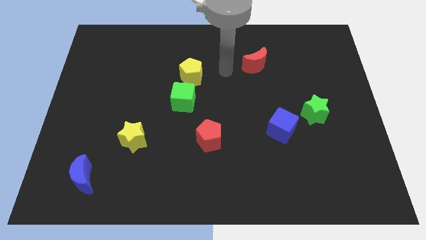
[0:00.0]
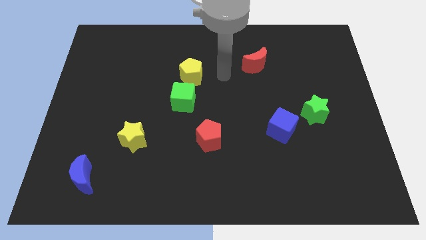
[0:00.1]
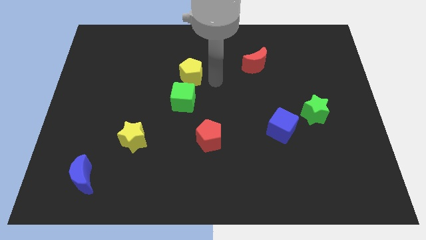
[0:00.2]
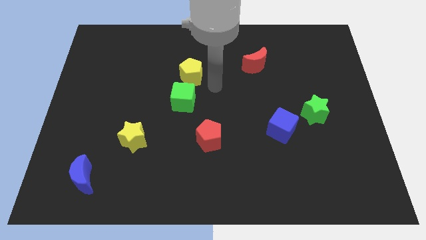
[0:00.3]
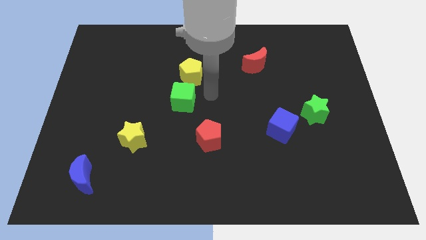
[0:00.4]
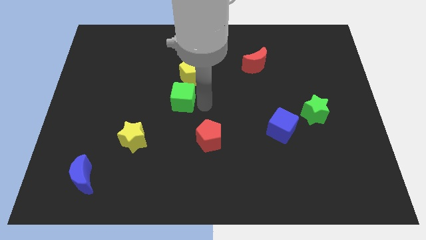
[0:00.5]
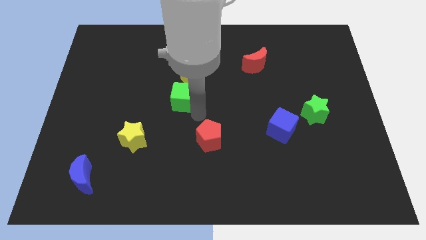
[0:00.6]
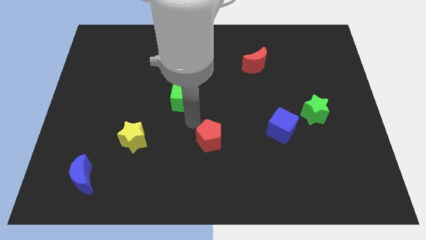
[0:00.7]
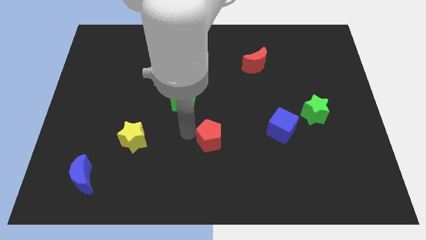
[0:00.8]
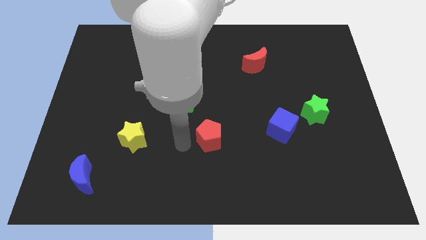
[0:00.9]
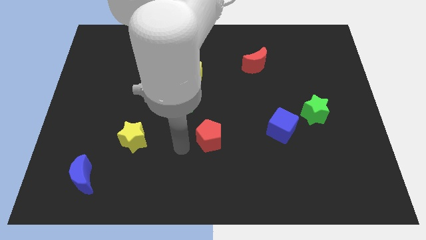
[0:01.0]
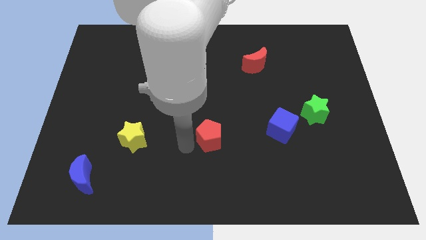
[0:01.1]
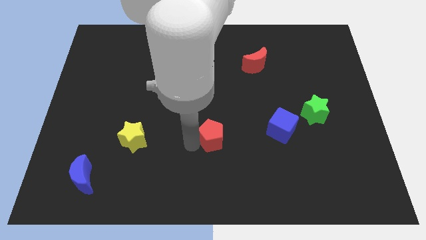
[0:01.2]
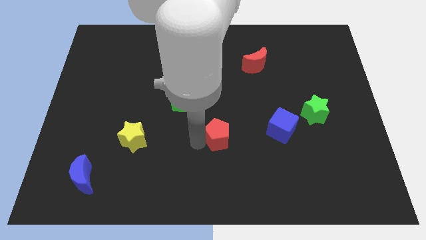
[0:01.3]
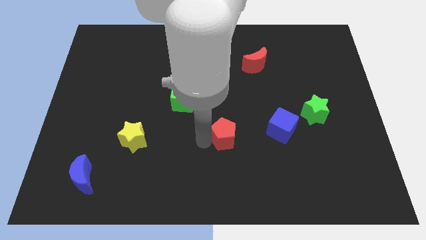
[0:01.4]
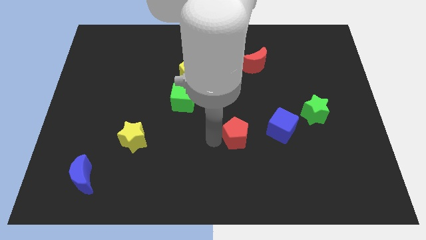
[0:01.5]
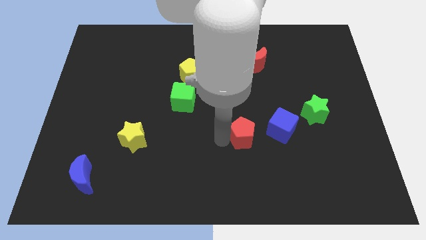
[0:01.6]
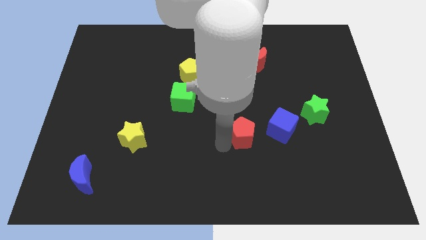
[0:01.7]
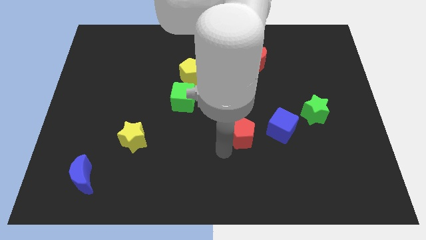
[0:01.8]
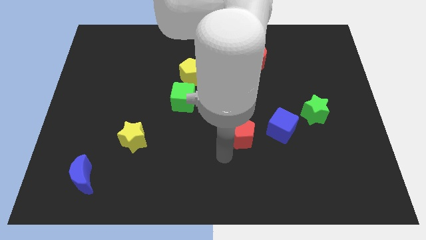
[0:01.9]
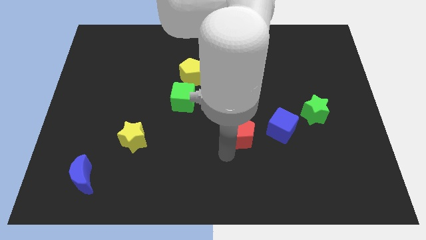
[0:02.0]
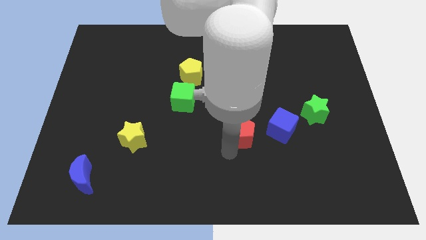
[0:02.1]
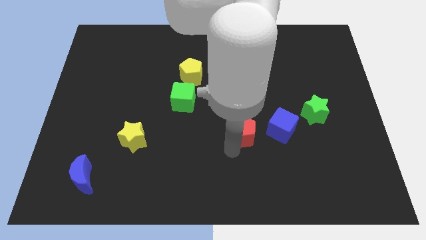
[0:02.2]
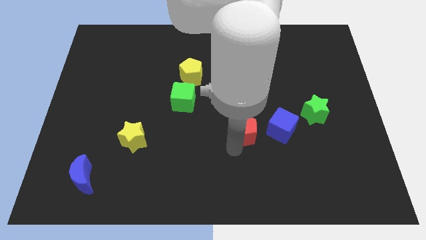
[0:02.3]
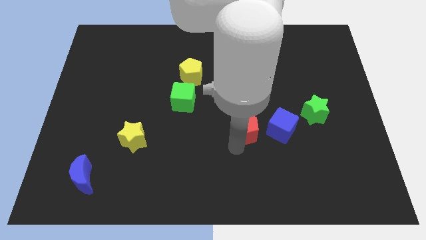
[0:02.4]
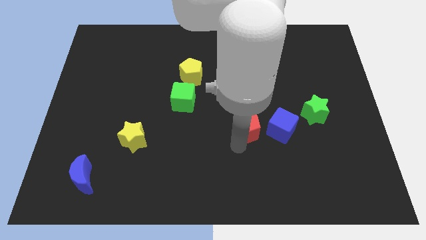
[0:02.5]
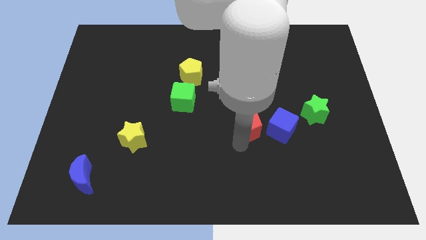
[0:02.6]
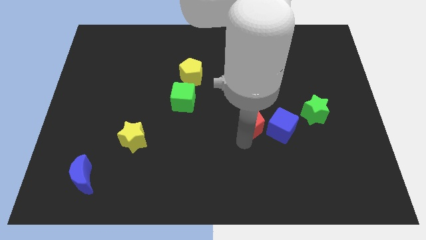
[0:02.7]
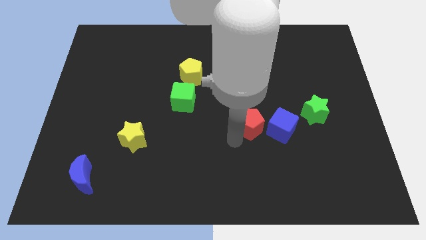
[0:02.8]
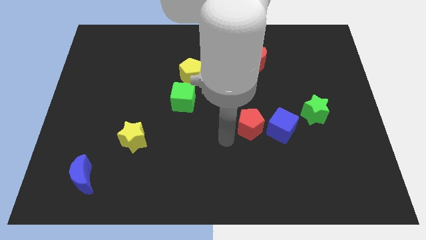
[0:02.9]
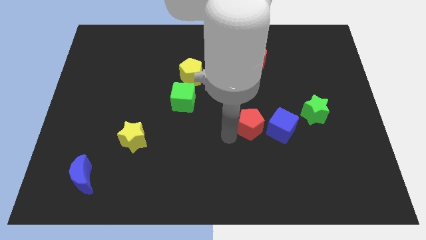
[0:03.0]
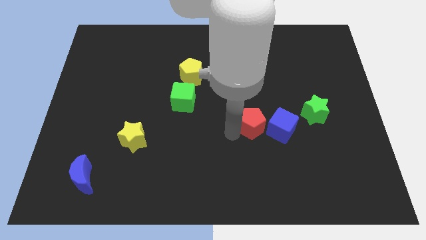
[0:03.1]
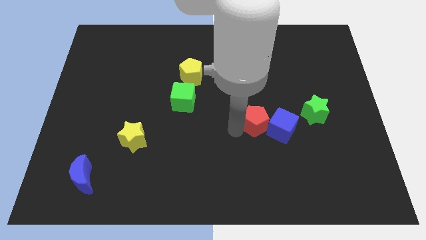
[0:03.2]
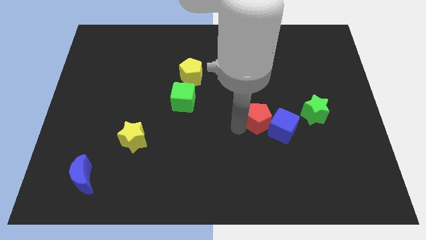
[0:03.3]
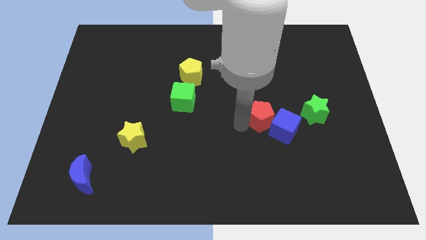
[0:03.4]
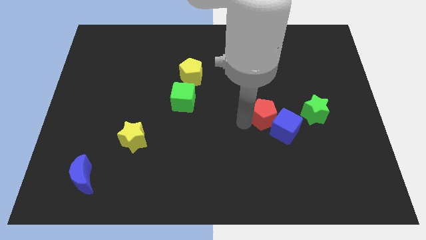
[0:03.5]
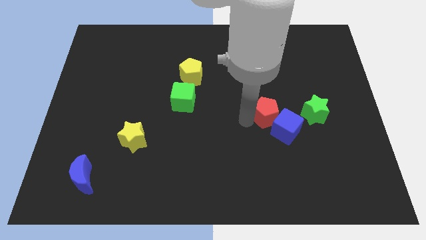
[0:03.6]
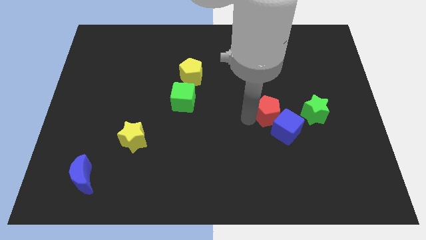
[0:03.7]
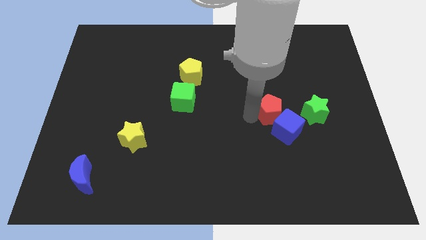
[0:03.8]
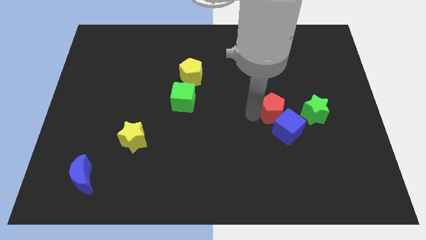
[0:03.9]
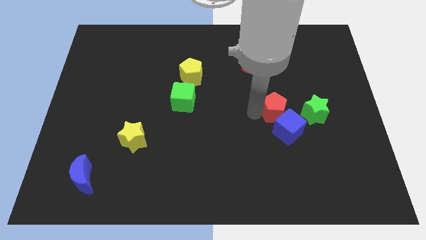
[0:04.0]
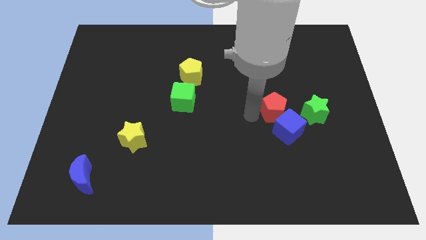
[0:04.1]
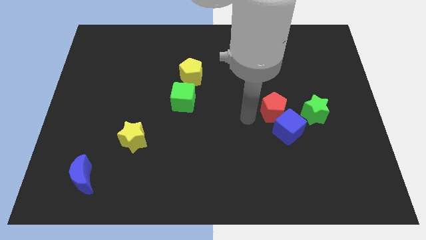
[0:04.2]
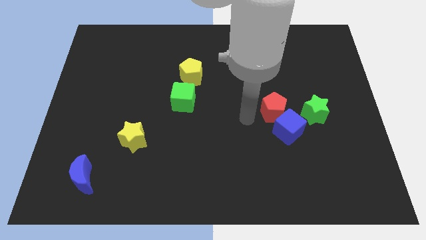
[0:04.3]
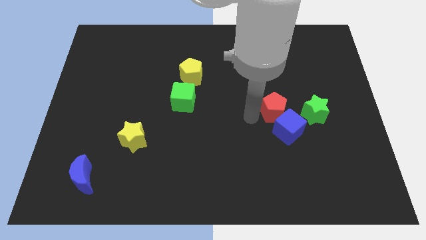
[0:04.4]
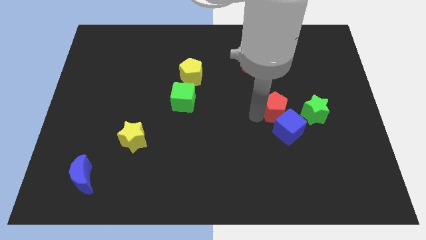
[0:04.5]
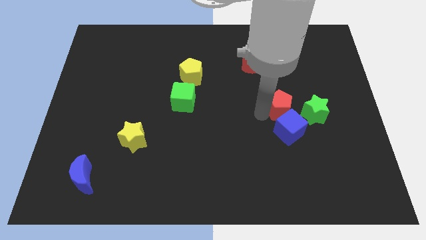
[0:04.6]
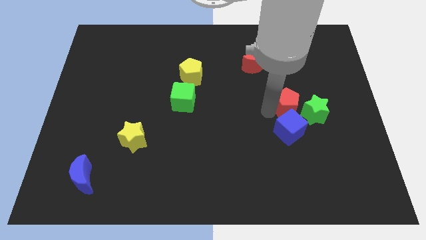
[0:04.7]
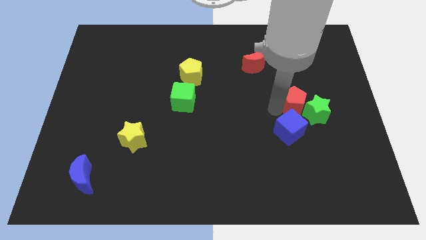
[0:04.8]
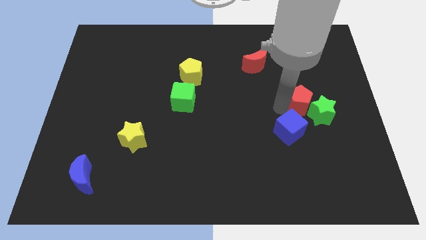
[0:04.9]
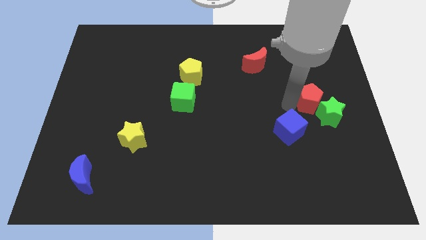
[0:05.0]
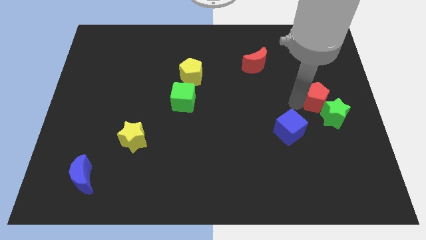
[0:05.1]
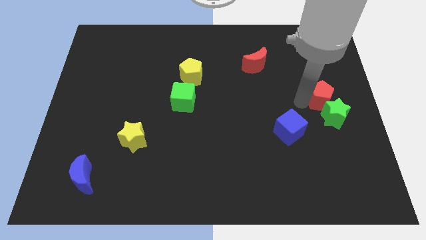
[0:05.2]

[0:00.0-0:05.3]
put the red pentagon to the center right

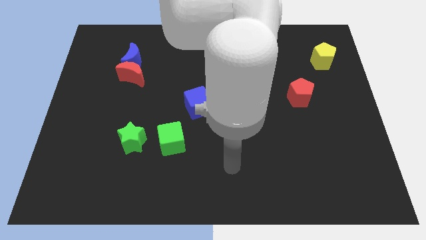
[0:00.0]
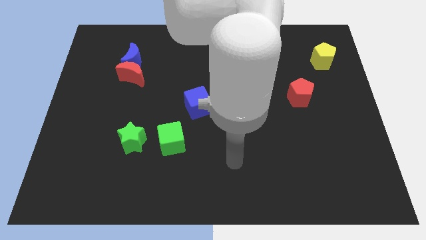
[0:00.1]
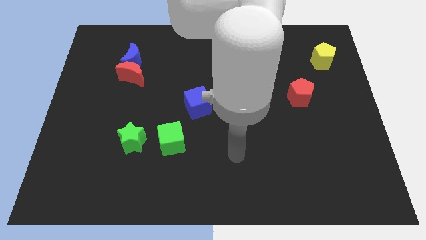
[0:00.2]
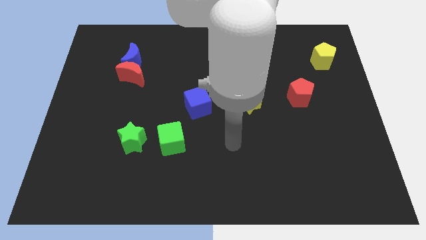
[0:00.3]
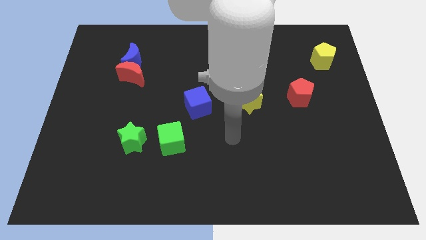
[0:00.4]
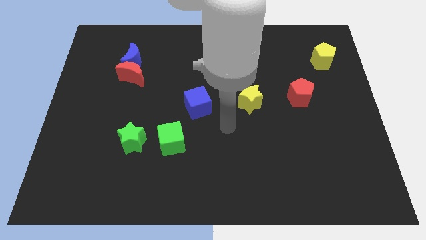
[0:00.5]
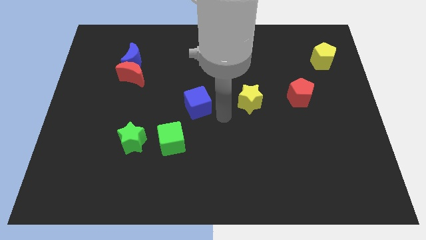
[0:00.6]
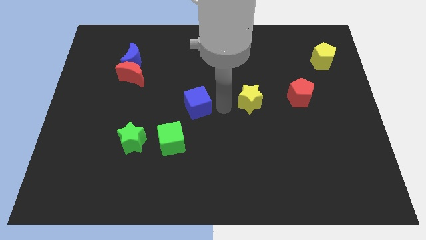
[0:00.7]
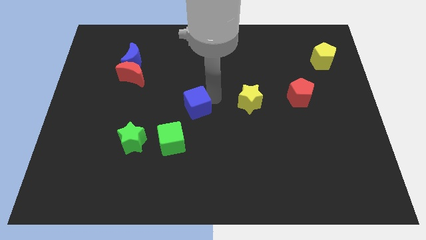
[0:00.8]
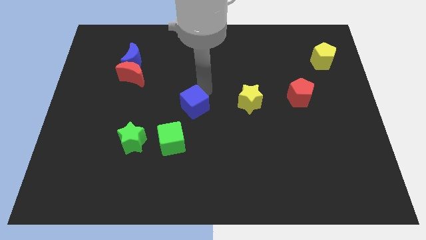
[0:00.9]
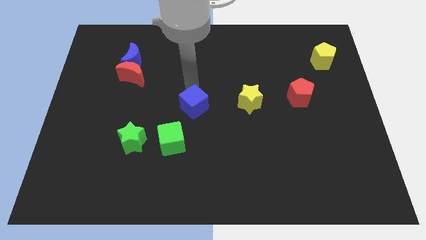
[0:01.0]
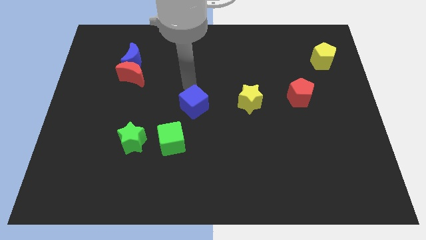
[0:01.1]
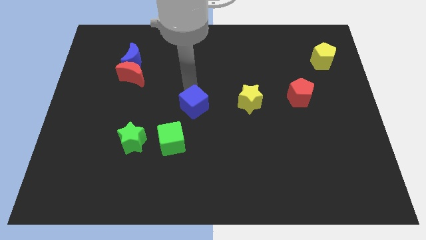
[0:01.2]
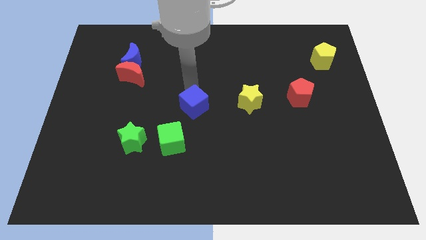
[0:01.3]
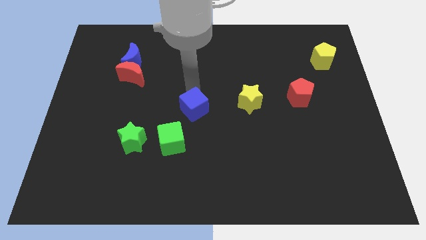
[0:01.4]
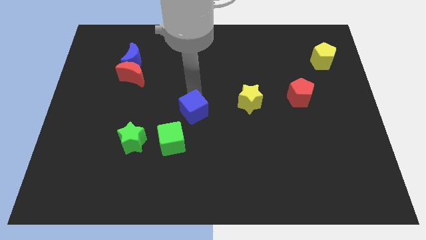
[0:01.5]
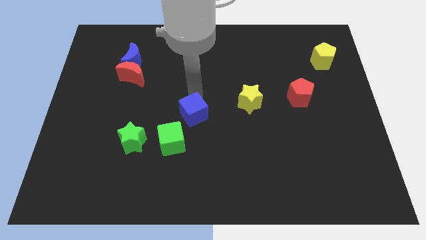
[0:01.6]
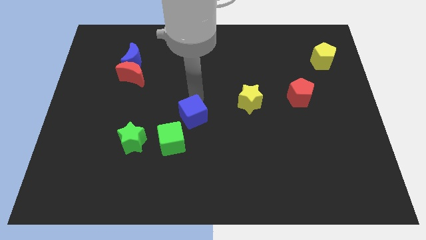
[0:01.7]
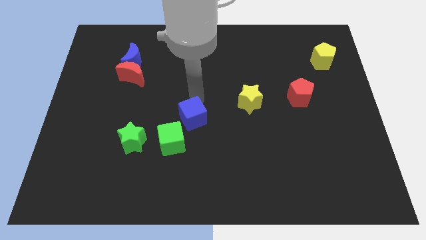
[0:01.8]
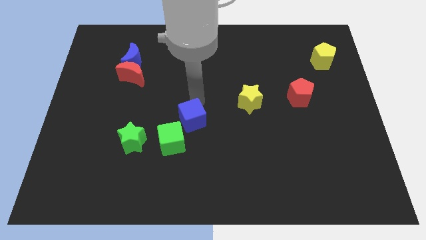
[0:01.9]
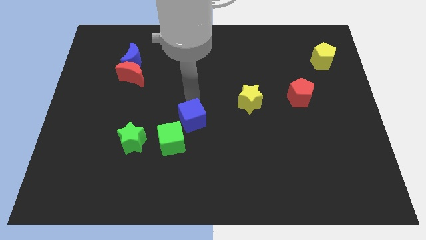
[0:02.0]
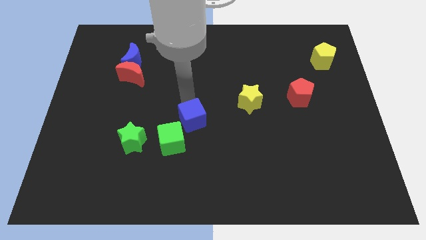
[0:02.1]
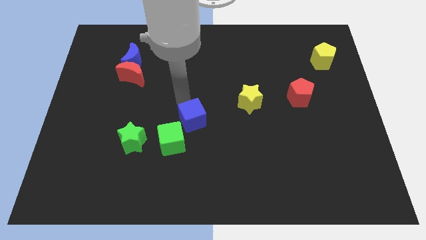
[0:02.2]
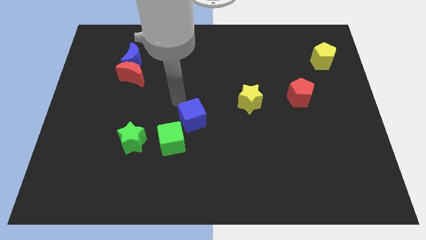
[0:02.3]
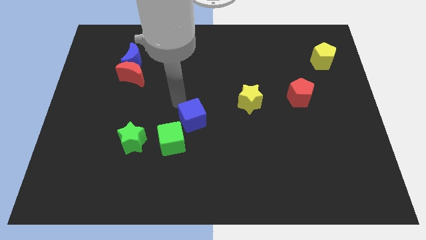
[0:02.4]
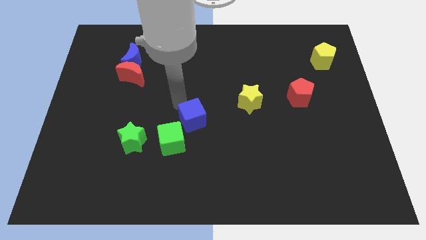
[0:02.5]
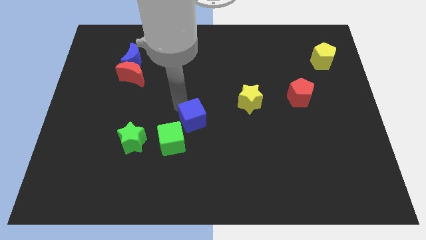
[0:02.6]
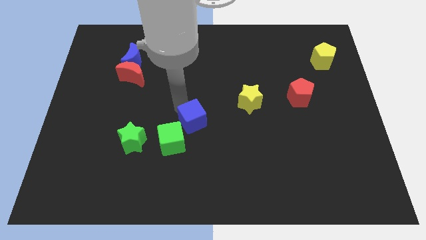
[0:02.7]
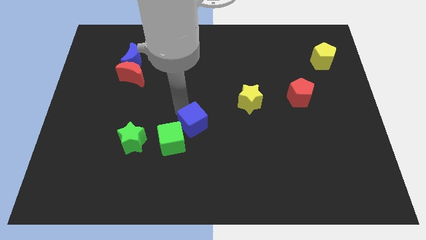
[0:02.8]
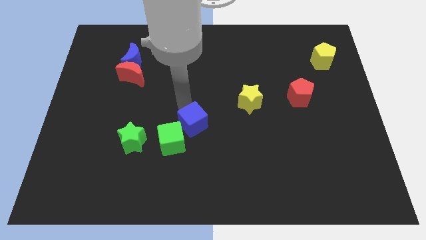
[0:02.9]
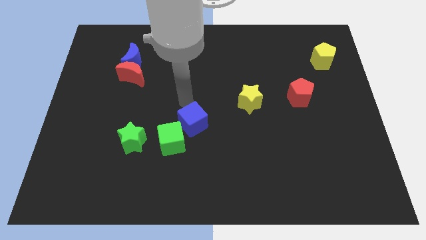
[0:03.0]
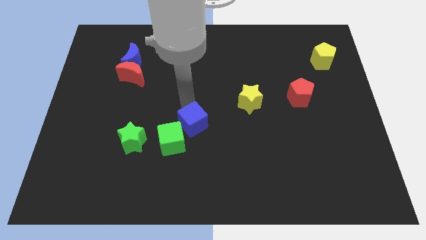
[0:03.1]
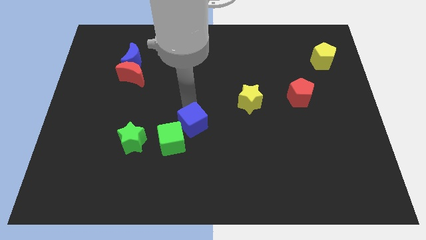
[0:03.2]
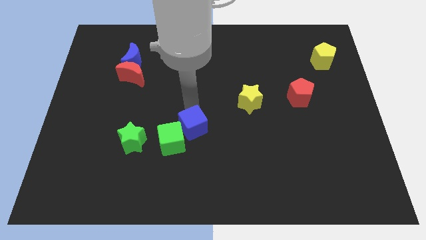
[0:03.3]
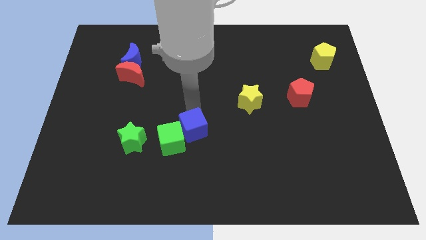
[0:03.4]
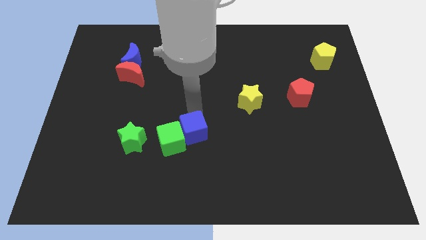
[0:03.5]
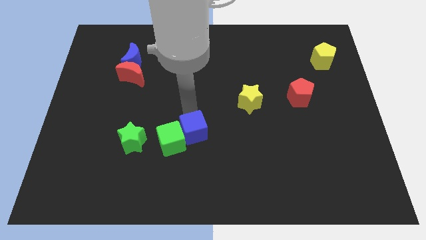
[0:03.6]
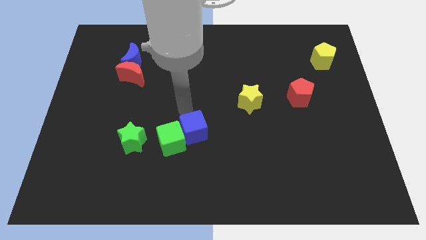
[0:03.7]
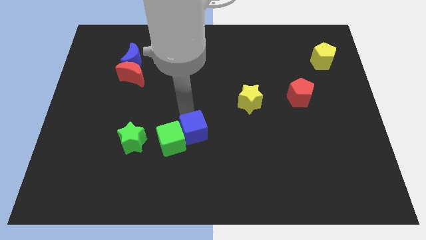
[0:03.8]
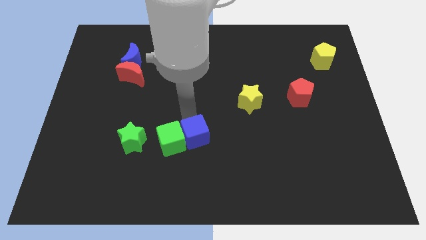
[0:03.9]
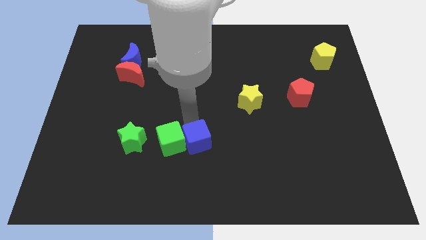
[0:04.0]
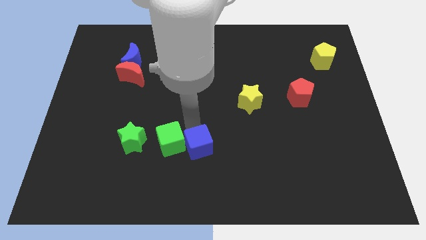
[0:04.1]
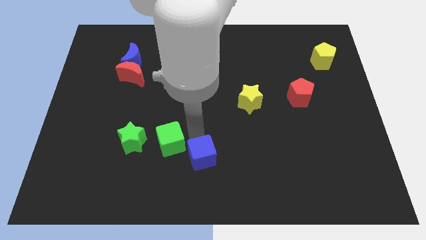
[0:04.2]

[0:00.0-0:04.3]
put the blue cube to the bottom side
